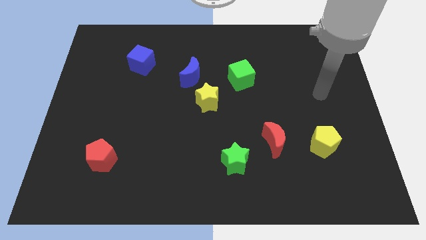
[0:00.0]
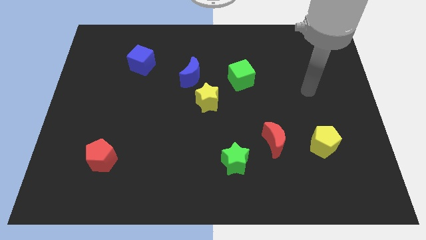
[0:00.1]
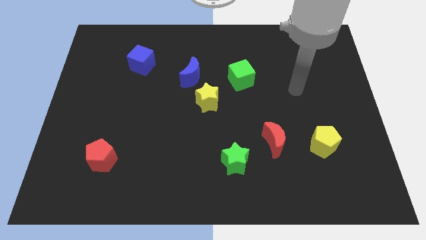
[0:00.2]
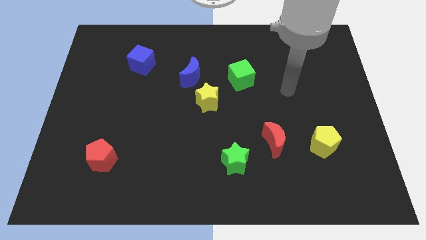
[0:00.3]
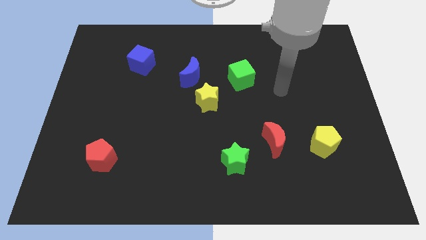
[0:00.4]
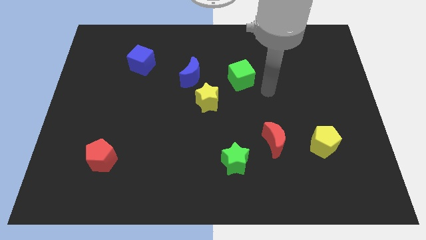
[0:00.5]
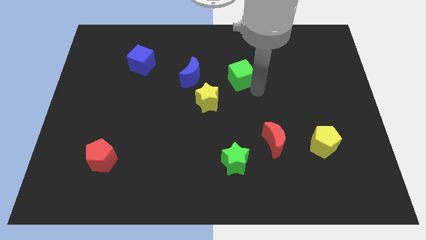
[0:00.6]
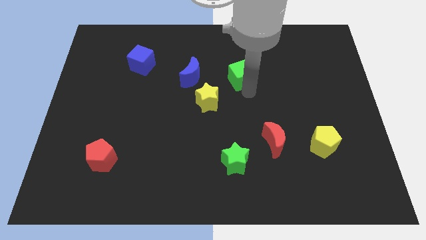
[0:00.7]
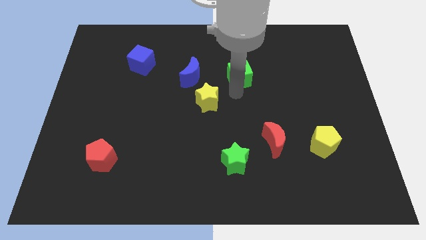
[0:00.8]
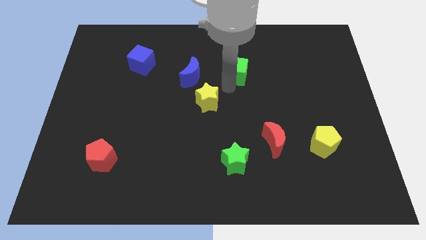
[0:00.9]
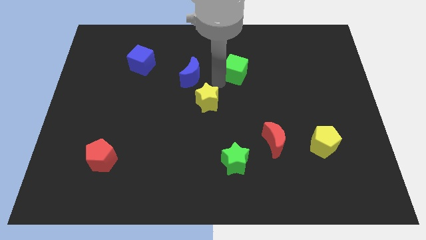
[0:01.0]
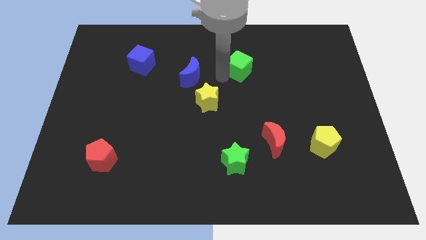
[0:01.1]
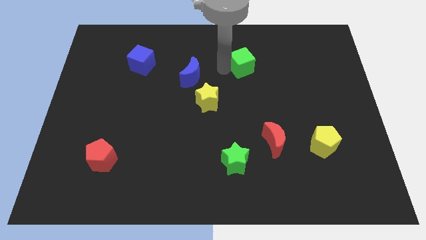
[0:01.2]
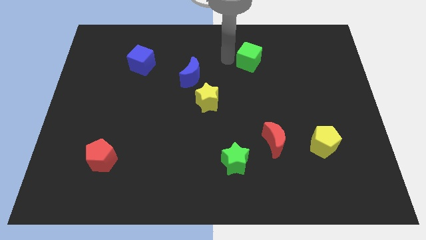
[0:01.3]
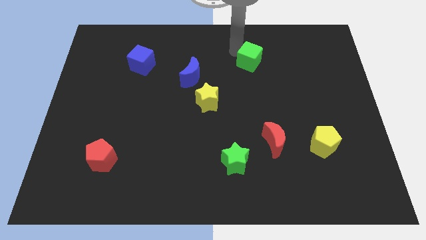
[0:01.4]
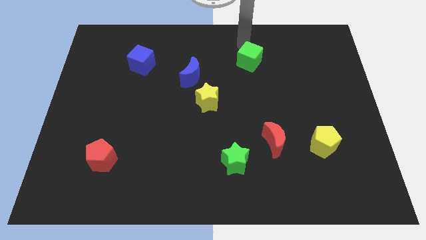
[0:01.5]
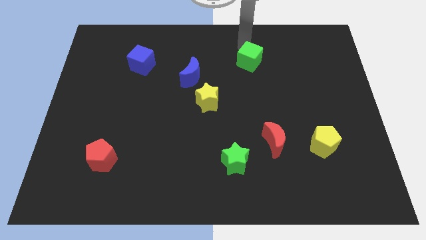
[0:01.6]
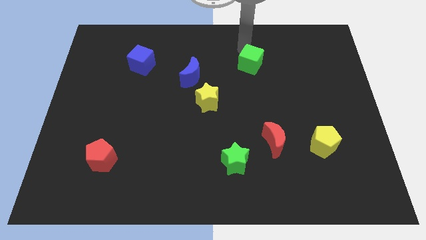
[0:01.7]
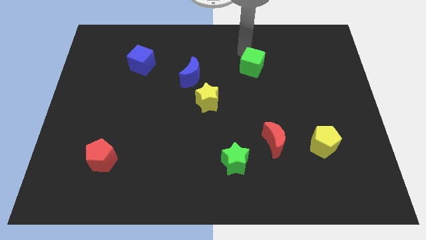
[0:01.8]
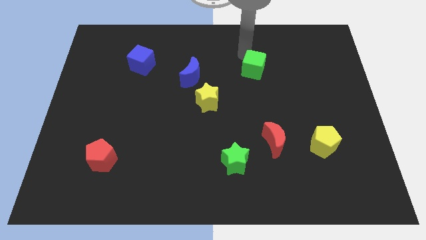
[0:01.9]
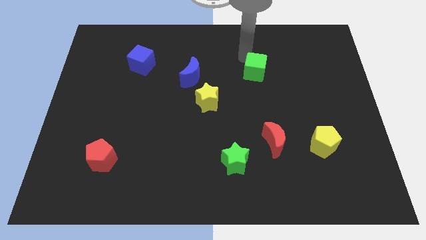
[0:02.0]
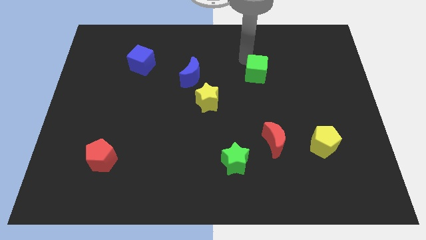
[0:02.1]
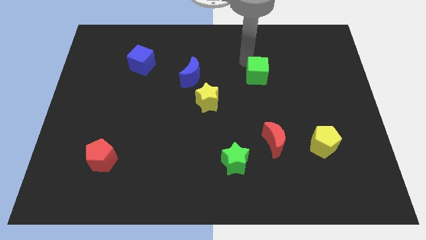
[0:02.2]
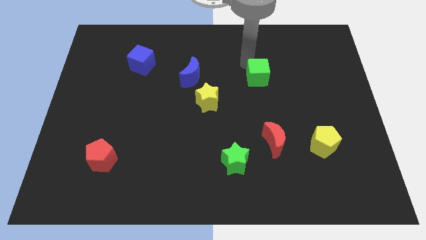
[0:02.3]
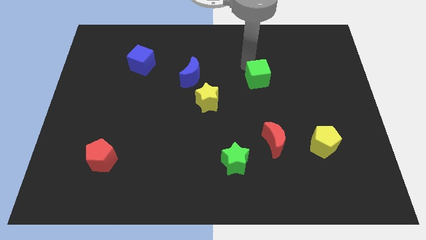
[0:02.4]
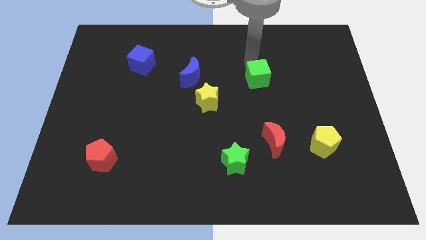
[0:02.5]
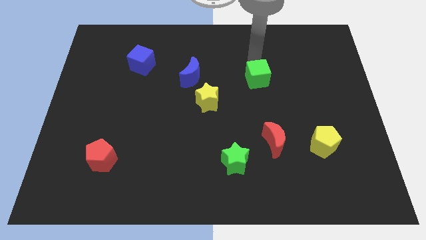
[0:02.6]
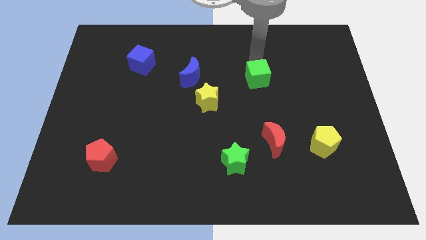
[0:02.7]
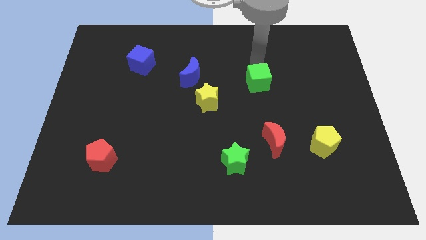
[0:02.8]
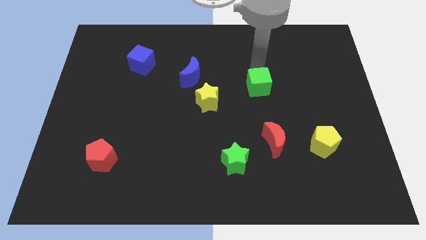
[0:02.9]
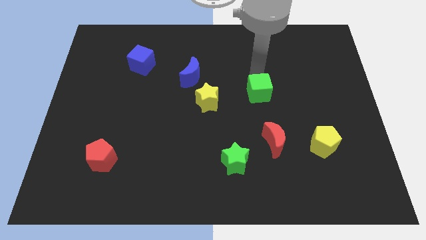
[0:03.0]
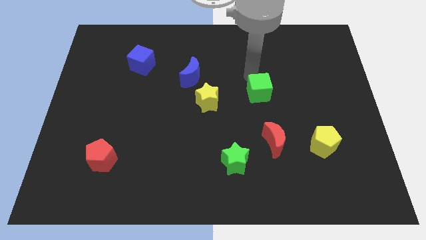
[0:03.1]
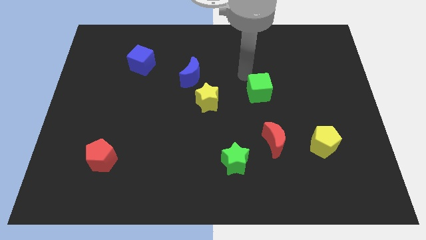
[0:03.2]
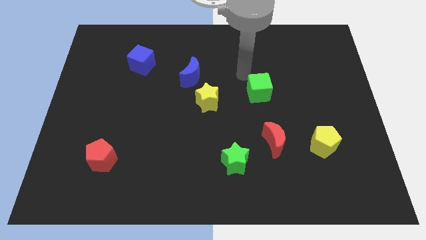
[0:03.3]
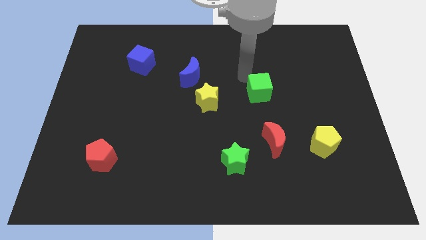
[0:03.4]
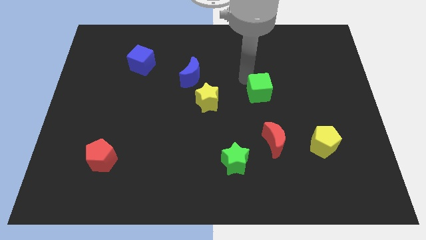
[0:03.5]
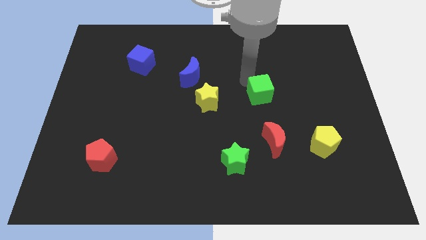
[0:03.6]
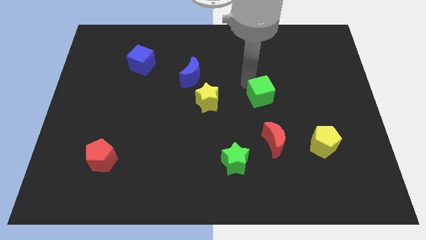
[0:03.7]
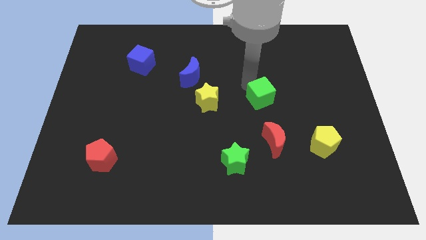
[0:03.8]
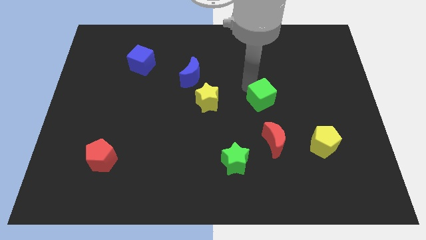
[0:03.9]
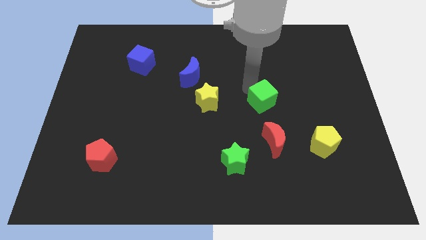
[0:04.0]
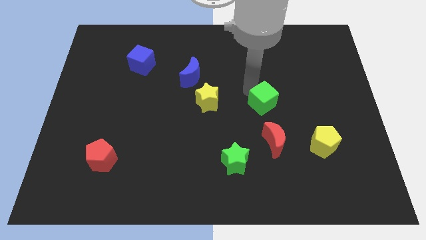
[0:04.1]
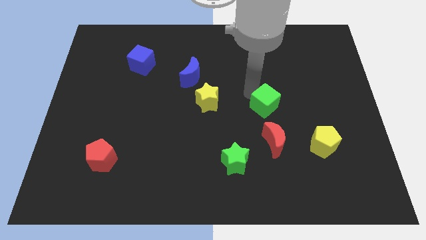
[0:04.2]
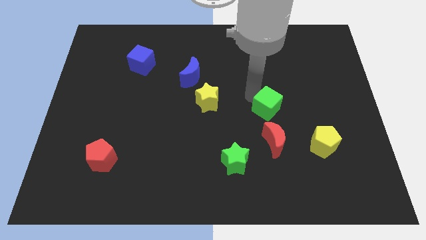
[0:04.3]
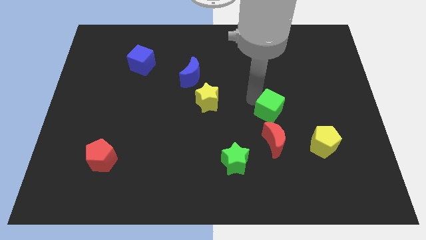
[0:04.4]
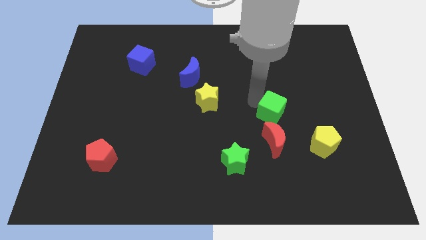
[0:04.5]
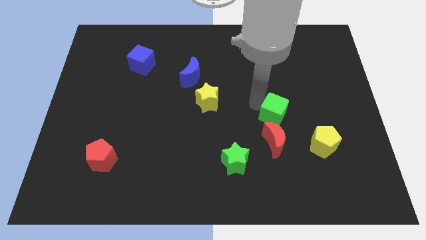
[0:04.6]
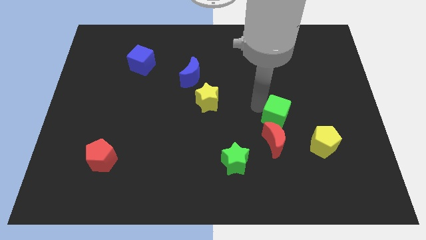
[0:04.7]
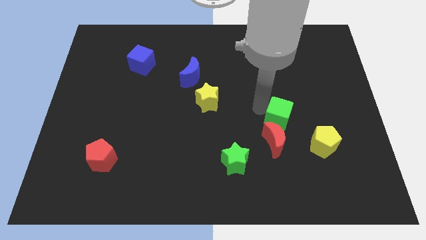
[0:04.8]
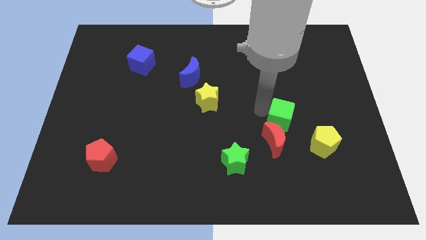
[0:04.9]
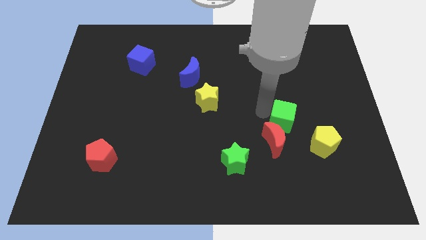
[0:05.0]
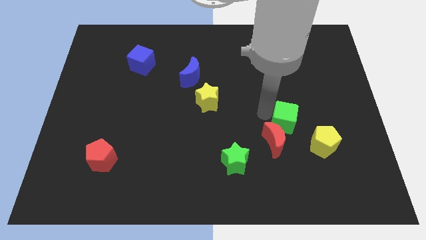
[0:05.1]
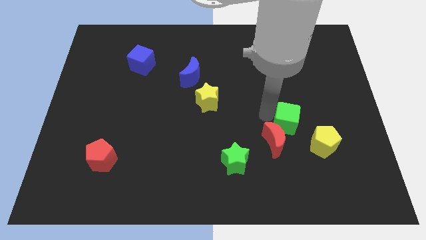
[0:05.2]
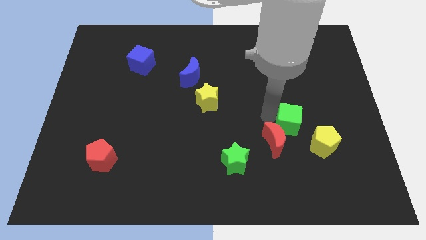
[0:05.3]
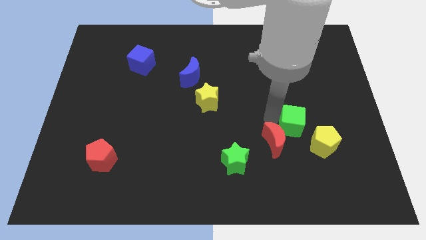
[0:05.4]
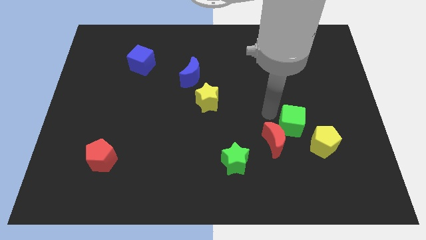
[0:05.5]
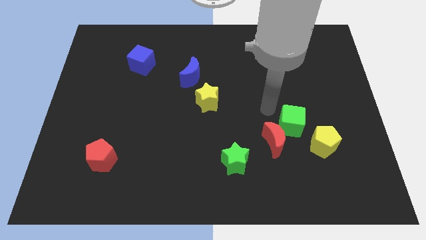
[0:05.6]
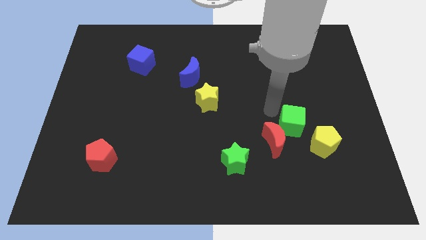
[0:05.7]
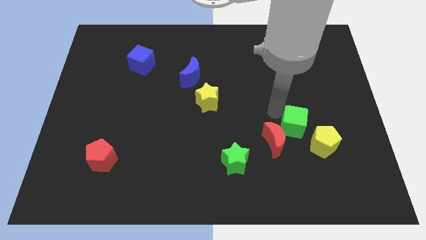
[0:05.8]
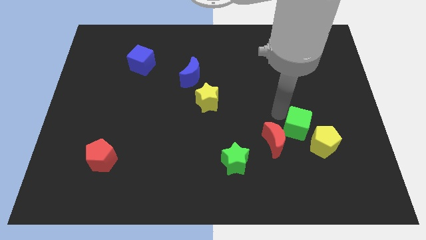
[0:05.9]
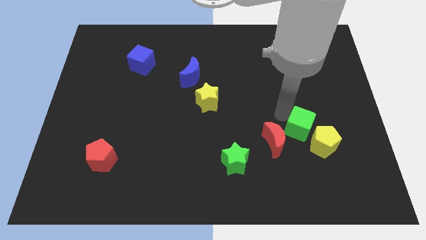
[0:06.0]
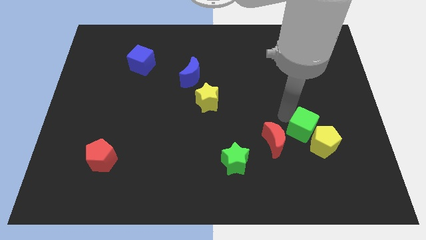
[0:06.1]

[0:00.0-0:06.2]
put the green cube to the yellow pentagon

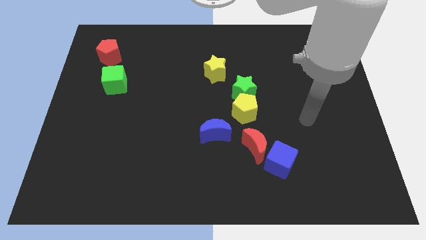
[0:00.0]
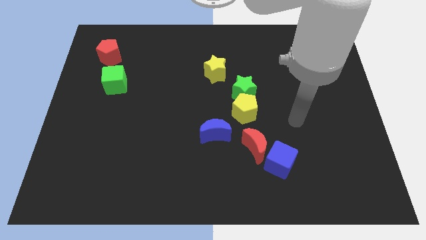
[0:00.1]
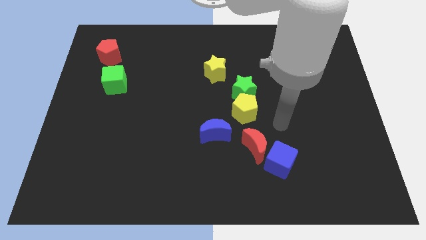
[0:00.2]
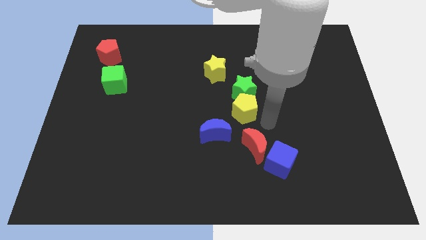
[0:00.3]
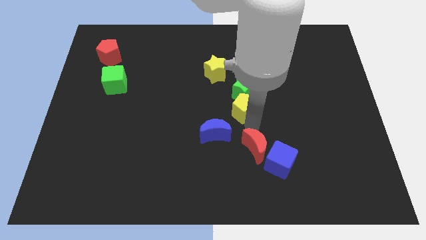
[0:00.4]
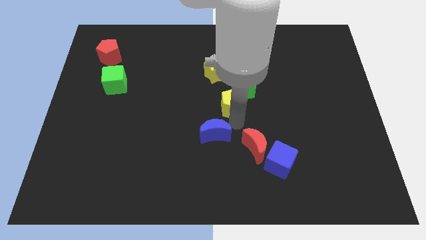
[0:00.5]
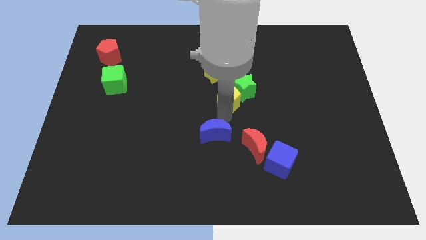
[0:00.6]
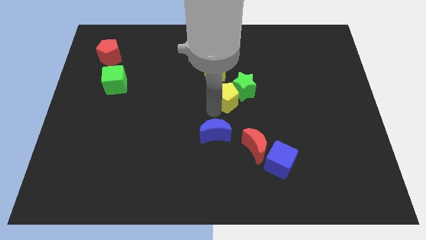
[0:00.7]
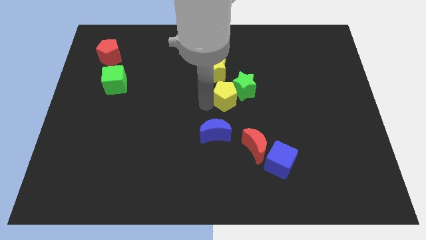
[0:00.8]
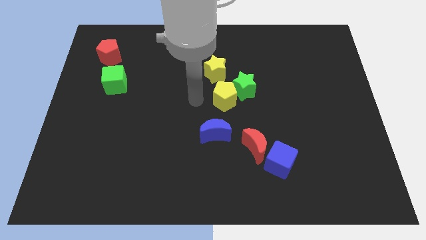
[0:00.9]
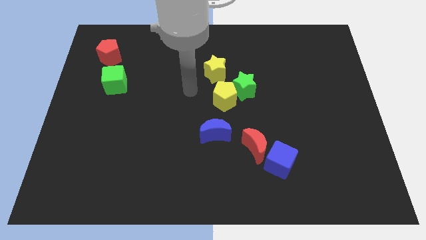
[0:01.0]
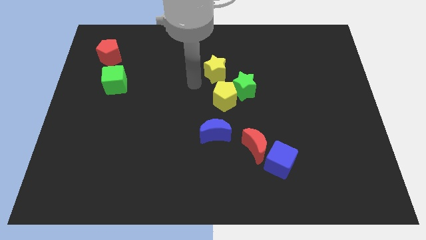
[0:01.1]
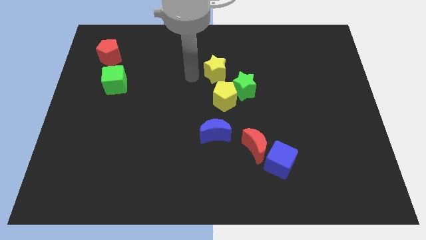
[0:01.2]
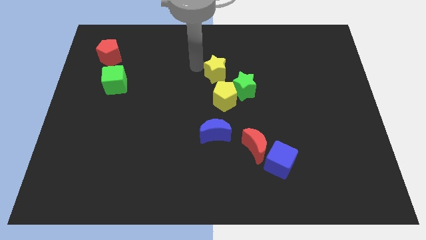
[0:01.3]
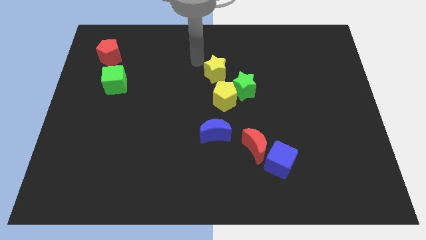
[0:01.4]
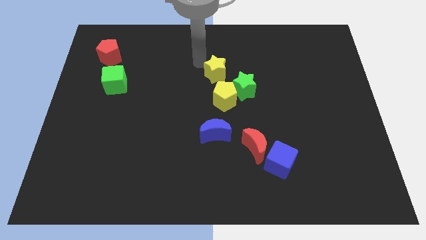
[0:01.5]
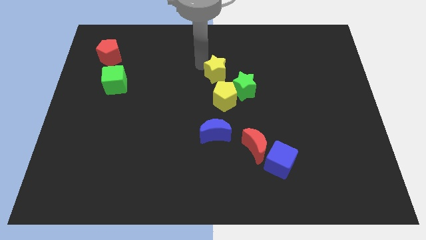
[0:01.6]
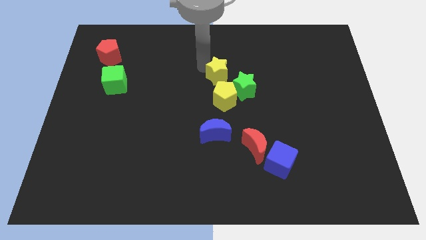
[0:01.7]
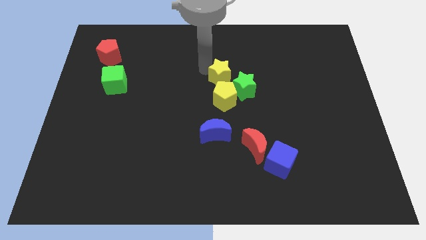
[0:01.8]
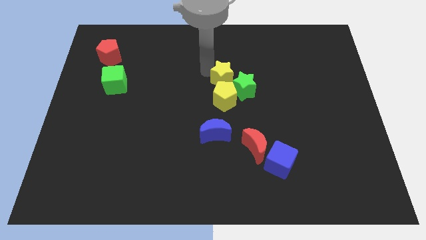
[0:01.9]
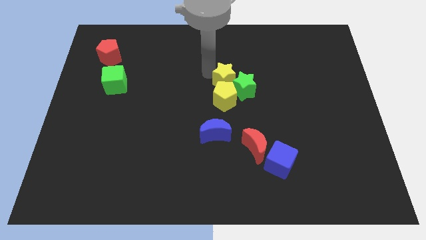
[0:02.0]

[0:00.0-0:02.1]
move the yellow star close to the green star
